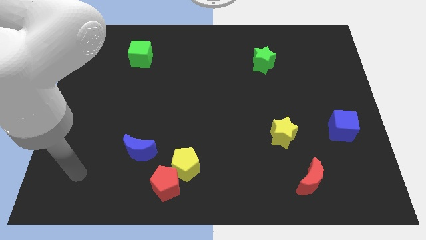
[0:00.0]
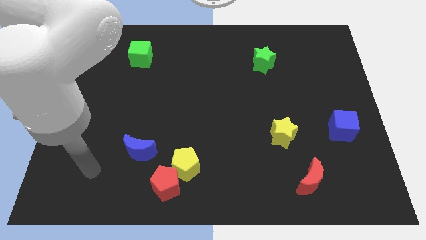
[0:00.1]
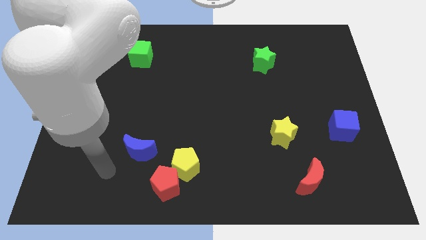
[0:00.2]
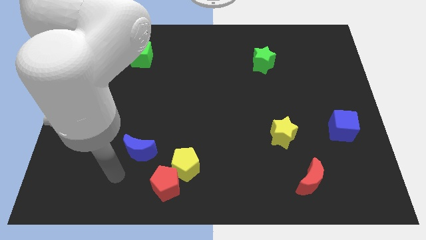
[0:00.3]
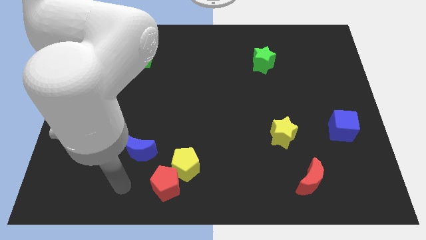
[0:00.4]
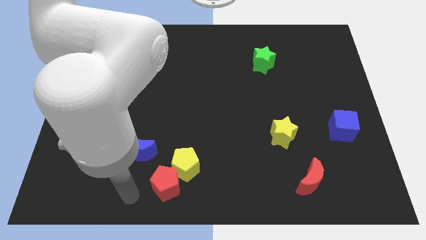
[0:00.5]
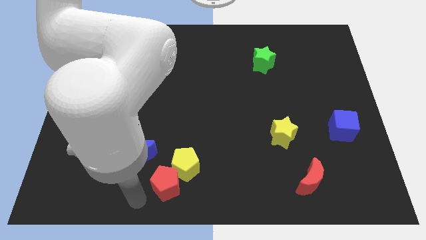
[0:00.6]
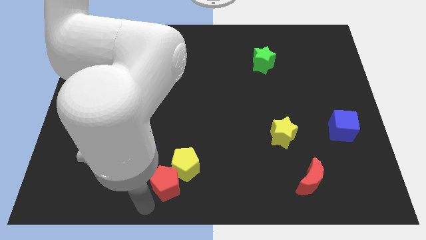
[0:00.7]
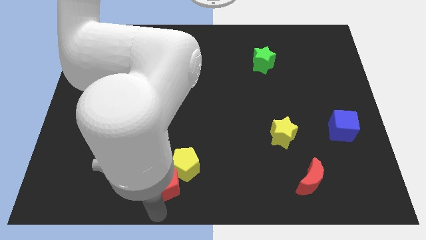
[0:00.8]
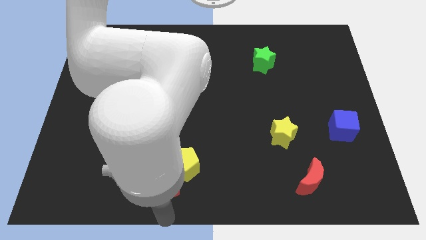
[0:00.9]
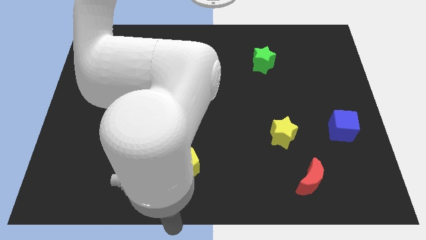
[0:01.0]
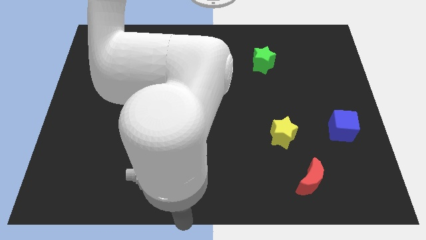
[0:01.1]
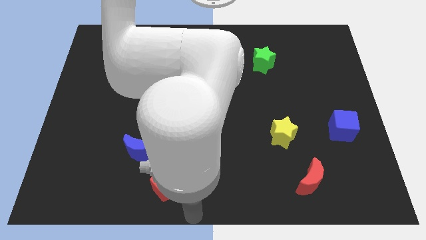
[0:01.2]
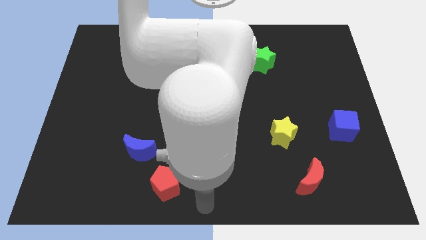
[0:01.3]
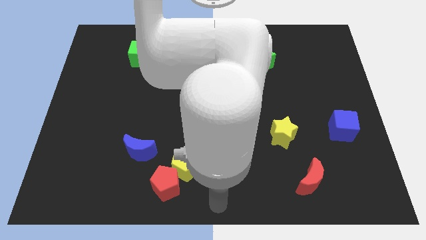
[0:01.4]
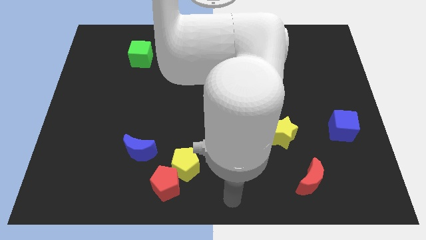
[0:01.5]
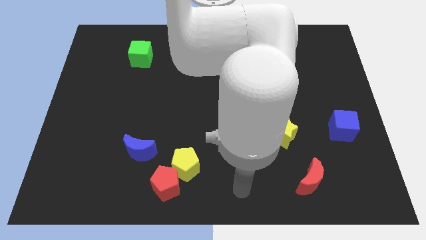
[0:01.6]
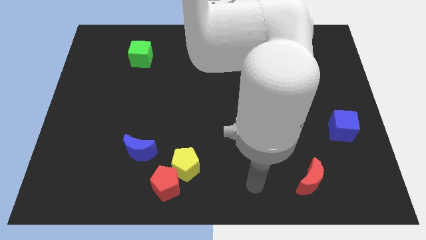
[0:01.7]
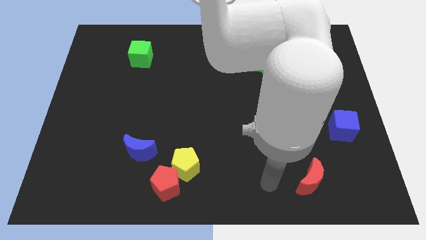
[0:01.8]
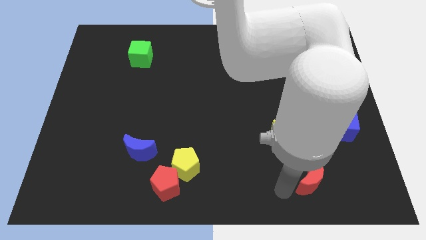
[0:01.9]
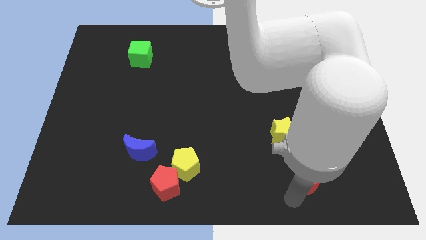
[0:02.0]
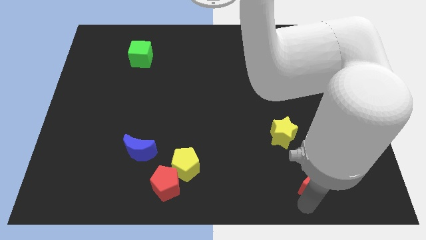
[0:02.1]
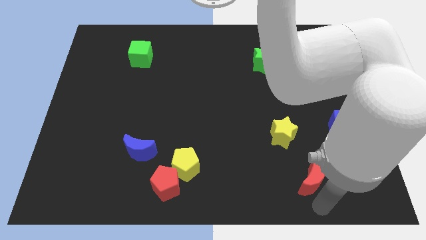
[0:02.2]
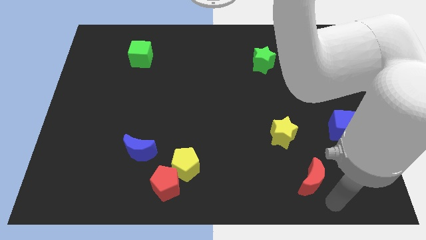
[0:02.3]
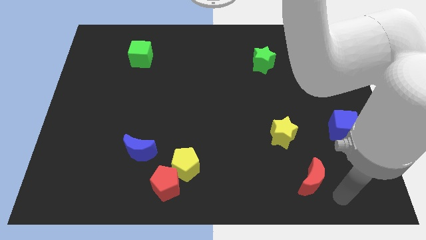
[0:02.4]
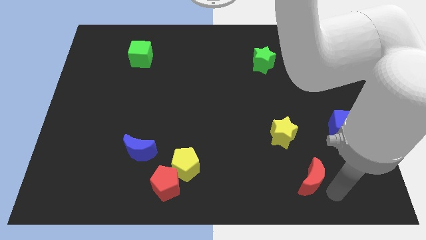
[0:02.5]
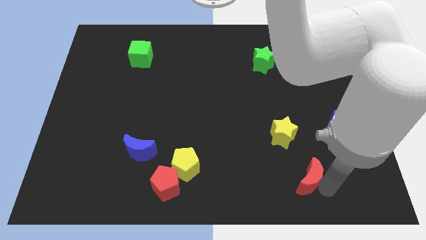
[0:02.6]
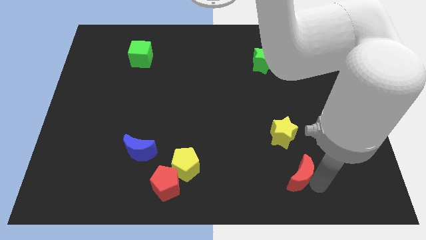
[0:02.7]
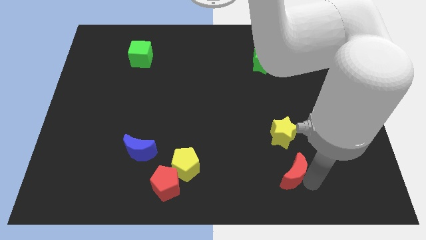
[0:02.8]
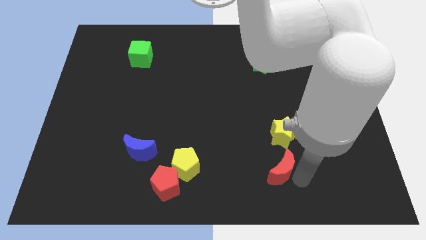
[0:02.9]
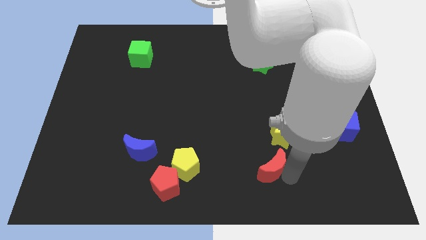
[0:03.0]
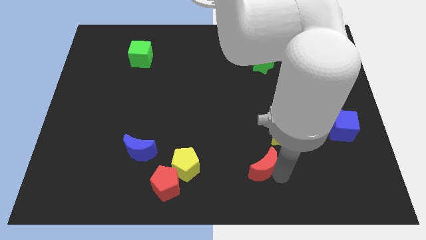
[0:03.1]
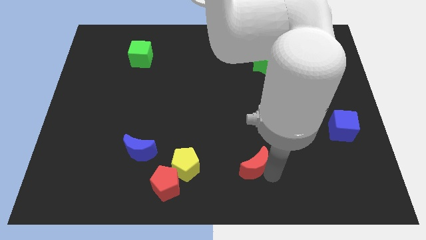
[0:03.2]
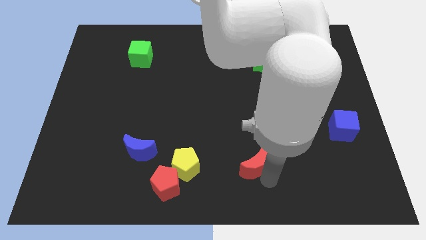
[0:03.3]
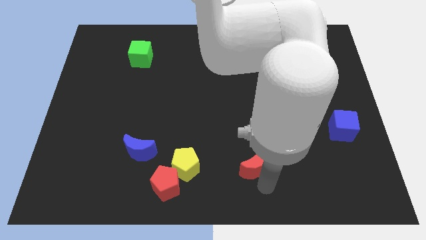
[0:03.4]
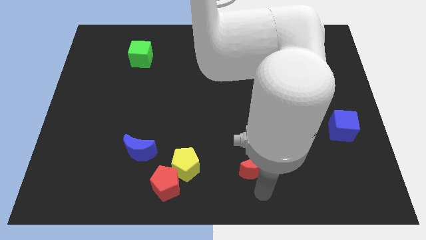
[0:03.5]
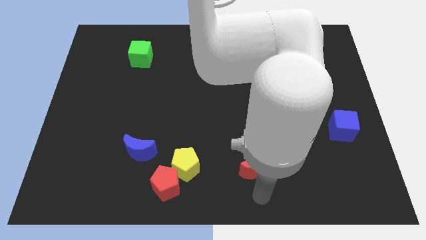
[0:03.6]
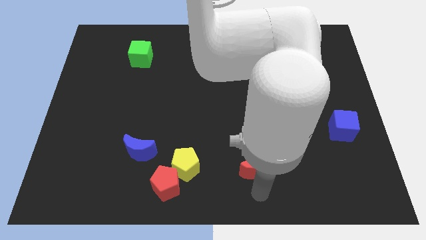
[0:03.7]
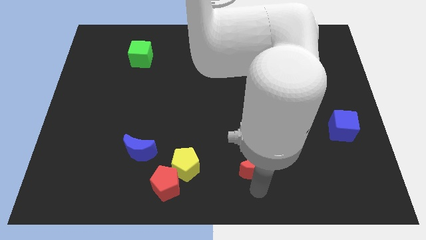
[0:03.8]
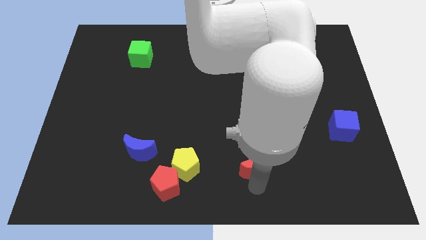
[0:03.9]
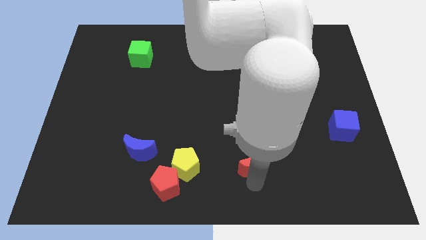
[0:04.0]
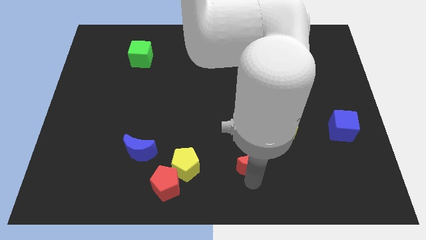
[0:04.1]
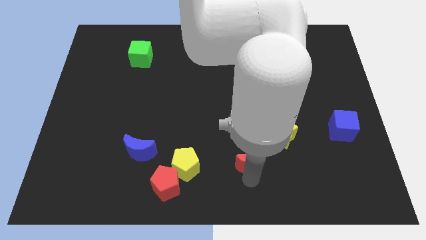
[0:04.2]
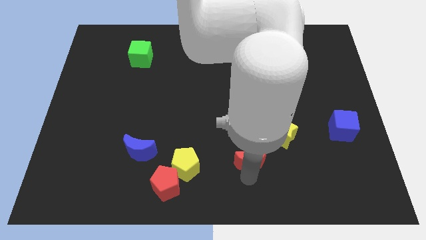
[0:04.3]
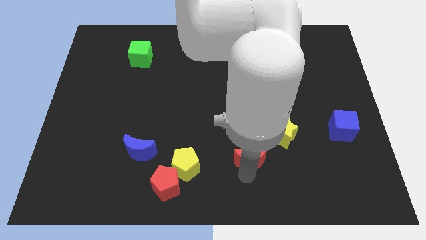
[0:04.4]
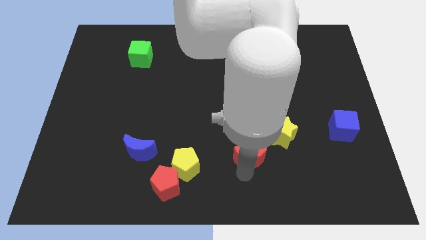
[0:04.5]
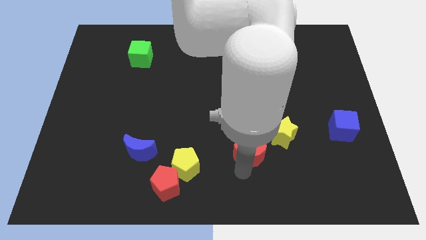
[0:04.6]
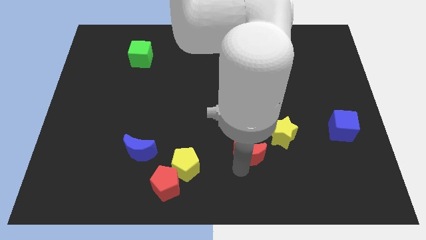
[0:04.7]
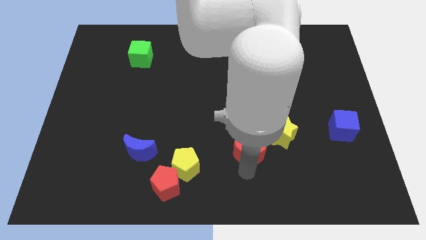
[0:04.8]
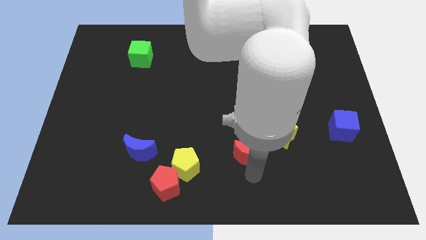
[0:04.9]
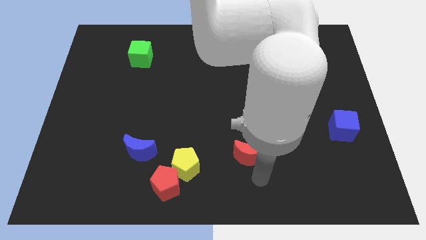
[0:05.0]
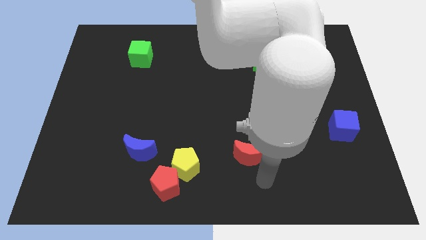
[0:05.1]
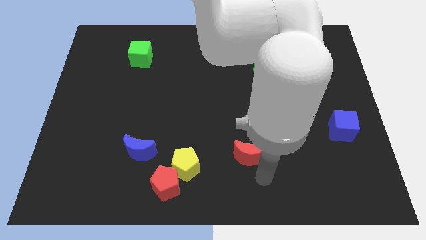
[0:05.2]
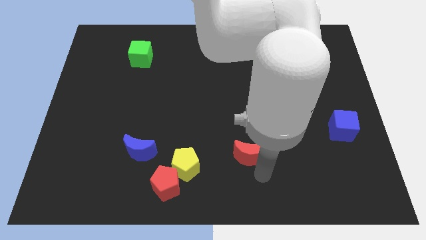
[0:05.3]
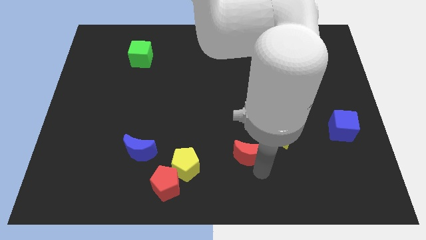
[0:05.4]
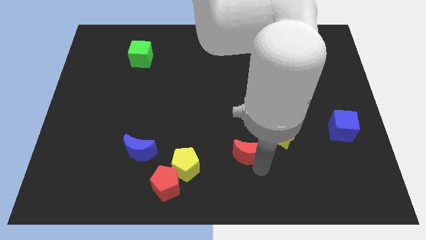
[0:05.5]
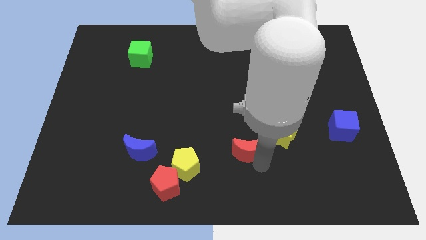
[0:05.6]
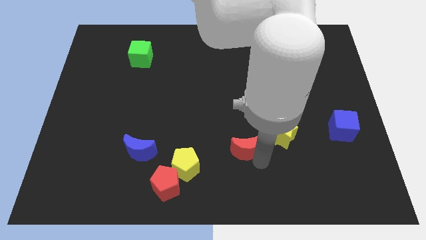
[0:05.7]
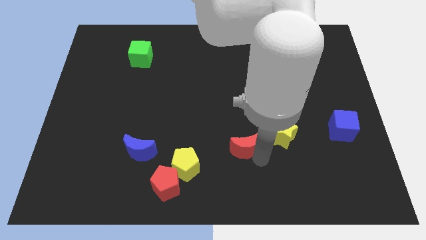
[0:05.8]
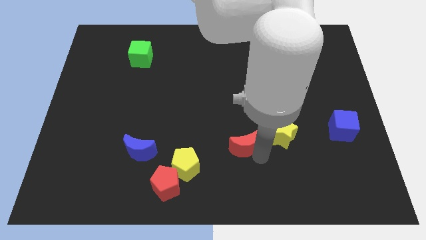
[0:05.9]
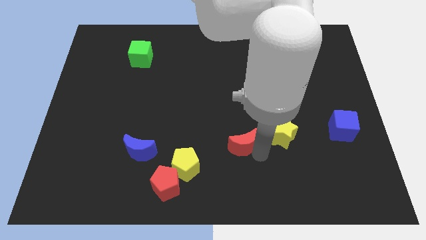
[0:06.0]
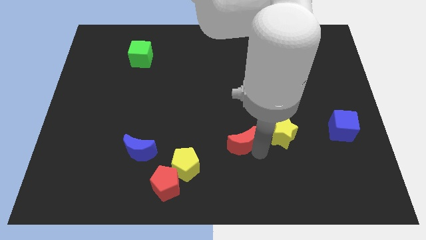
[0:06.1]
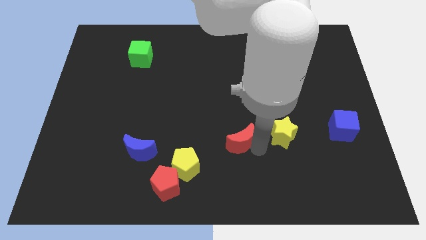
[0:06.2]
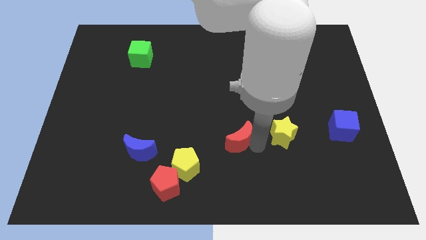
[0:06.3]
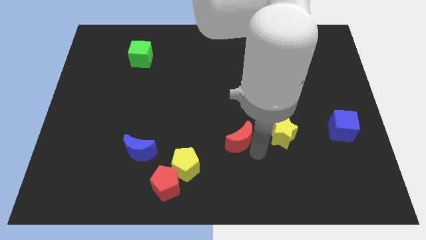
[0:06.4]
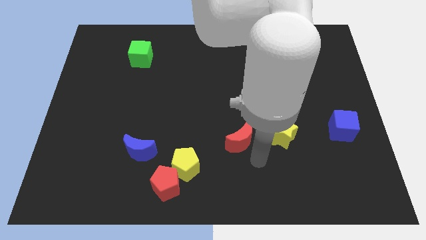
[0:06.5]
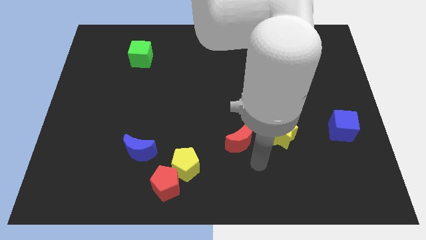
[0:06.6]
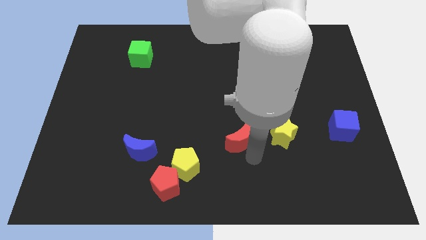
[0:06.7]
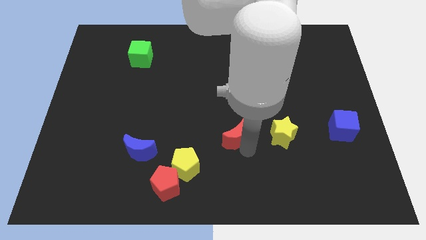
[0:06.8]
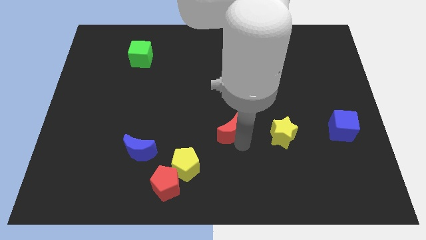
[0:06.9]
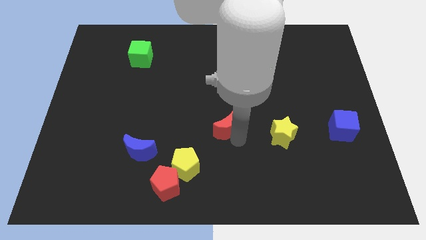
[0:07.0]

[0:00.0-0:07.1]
move the red moon diagonally upwards and to the left

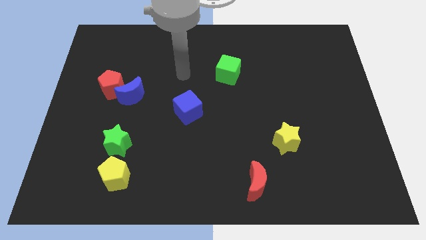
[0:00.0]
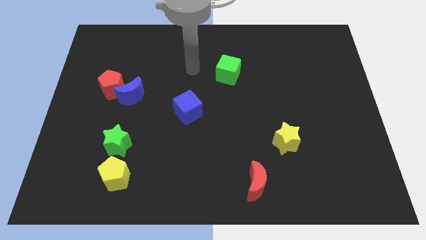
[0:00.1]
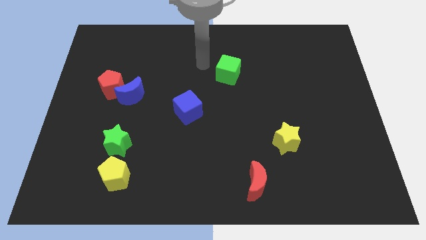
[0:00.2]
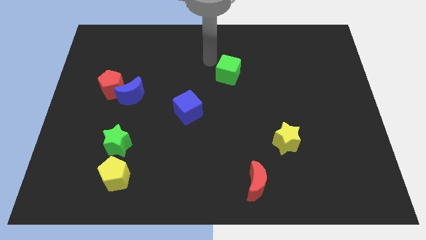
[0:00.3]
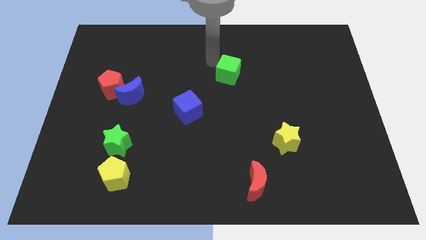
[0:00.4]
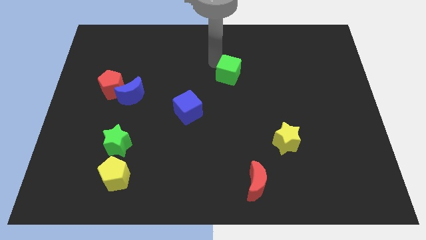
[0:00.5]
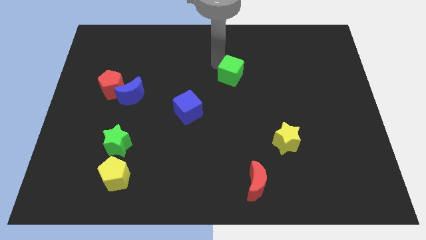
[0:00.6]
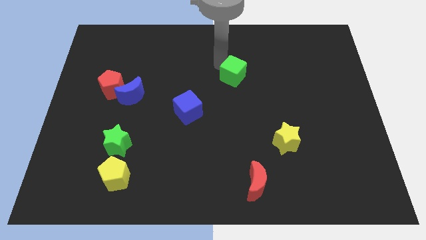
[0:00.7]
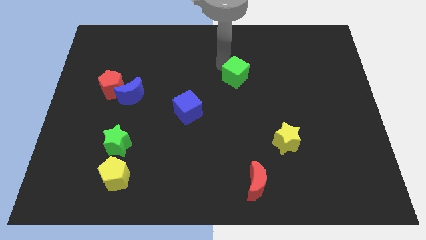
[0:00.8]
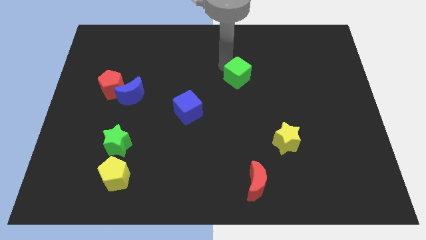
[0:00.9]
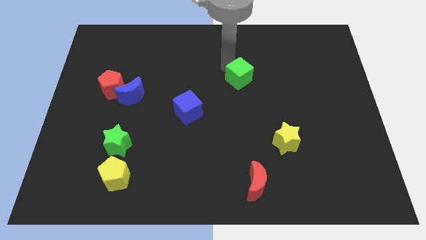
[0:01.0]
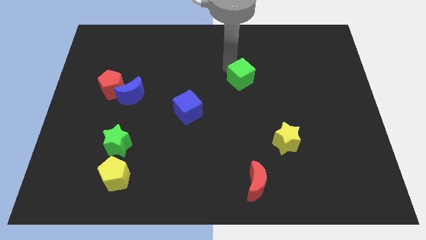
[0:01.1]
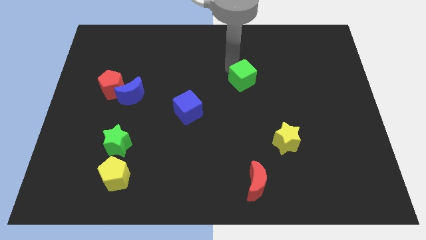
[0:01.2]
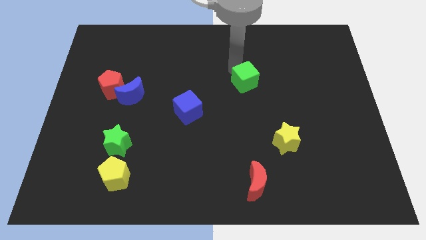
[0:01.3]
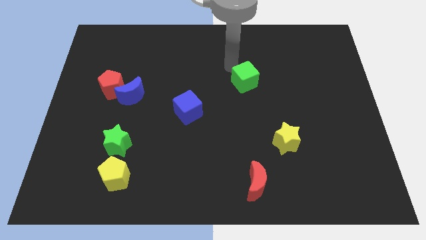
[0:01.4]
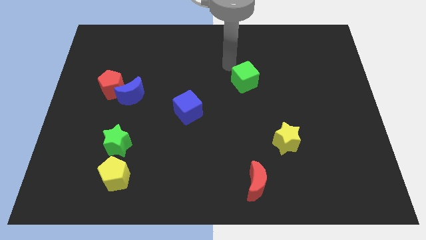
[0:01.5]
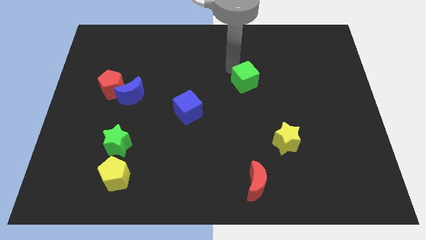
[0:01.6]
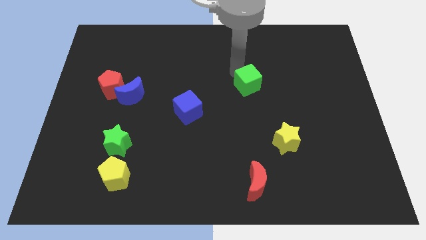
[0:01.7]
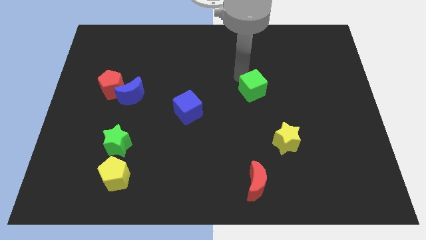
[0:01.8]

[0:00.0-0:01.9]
push the green cube somewhat downwards and to the right
